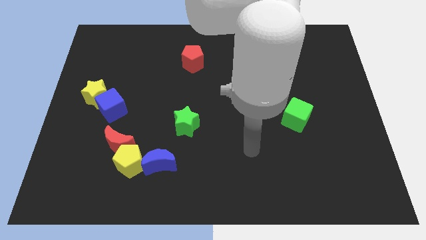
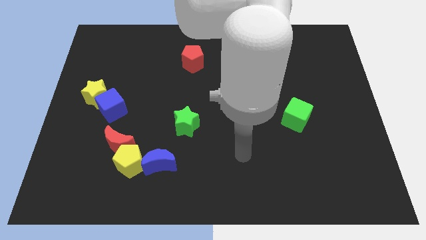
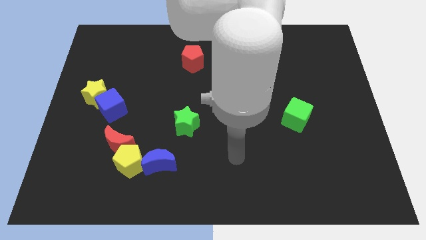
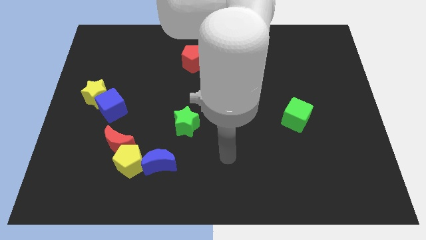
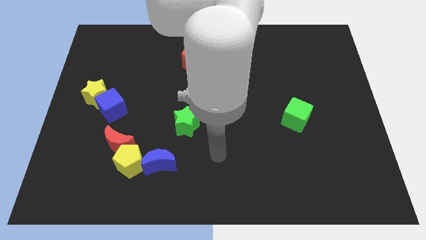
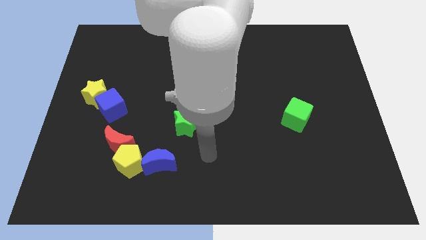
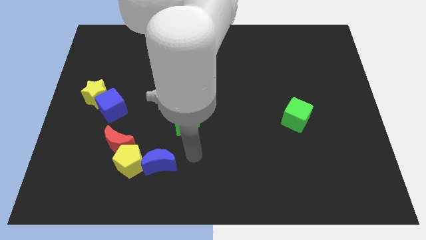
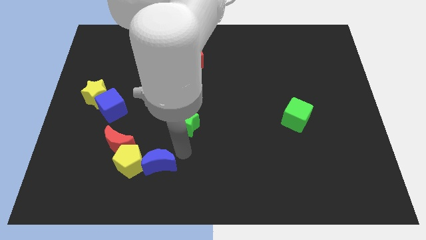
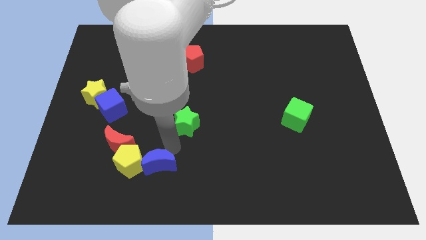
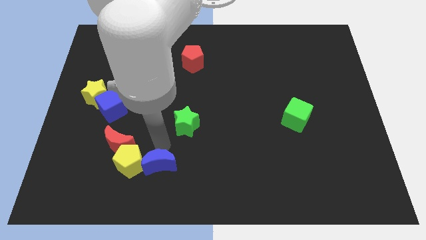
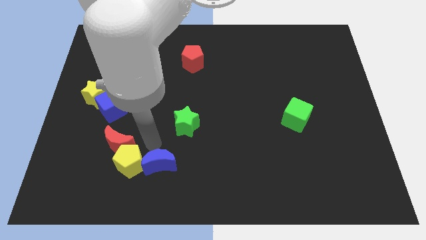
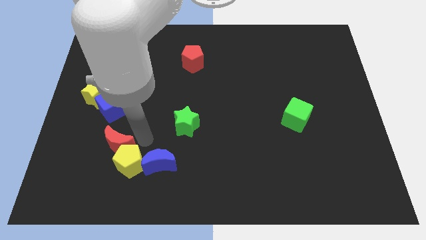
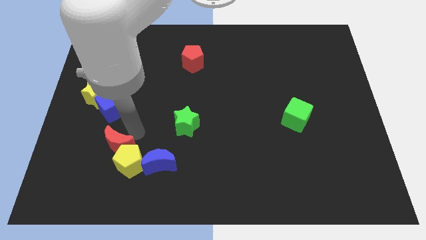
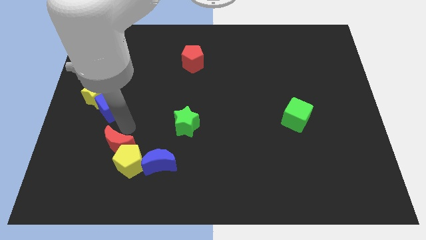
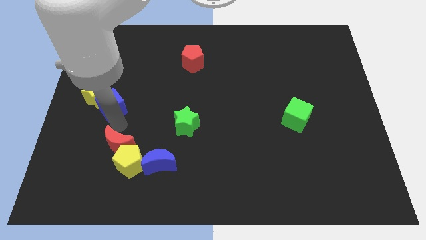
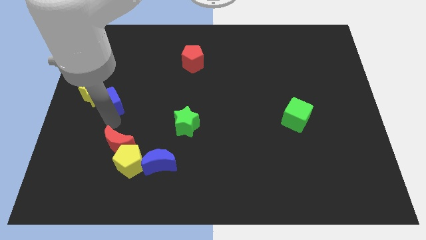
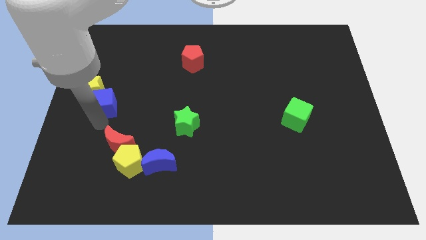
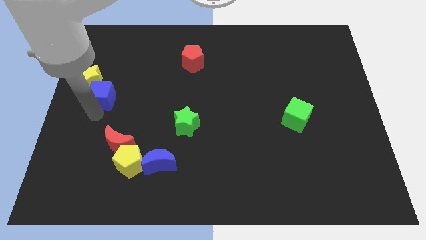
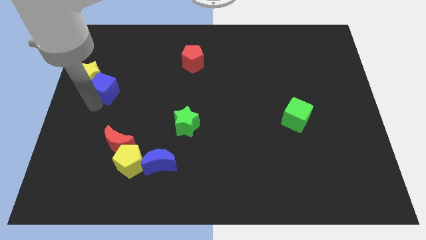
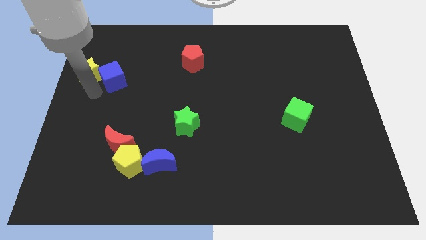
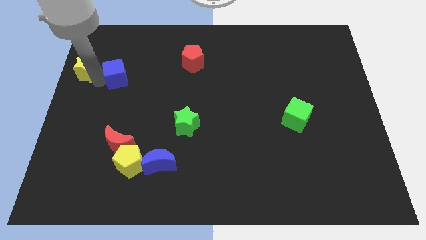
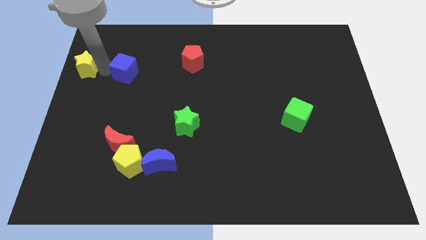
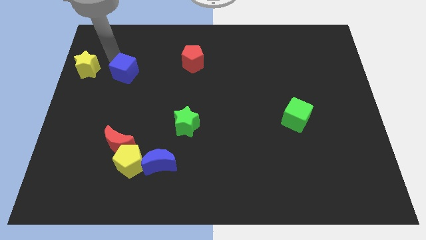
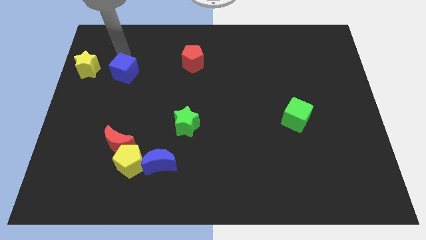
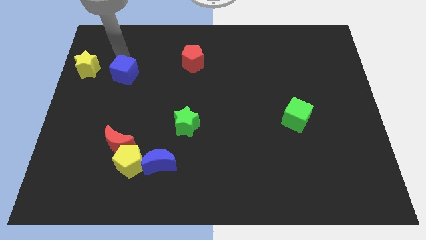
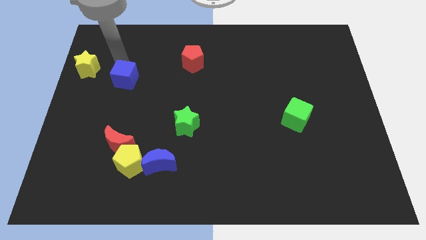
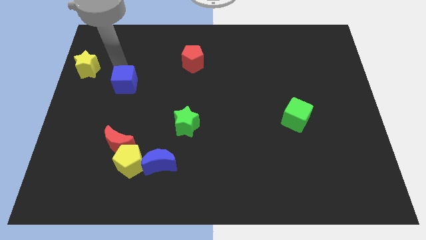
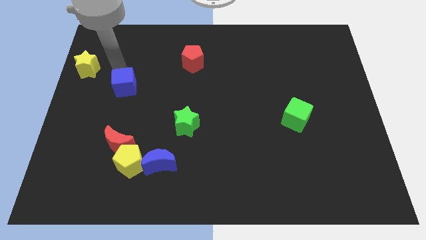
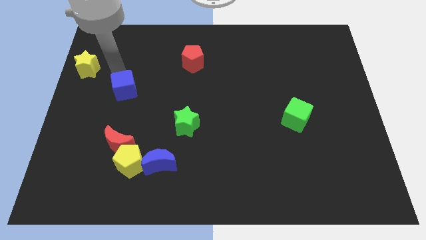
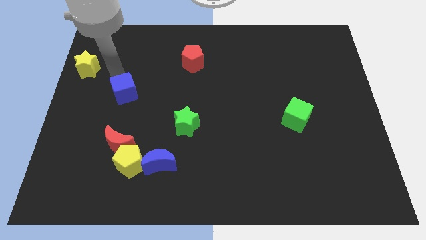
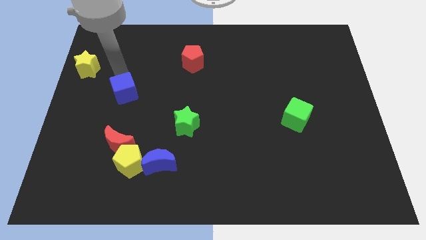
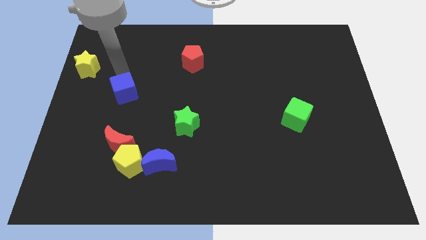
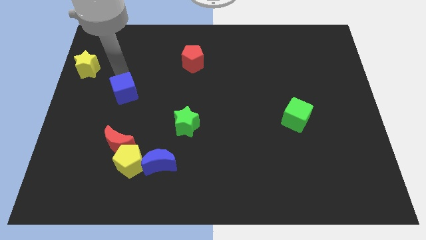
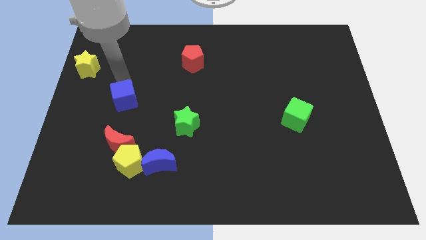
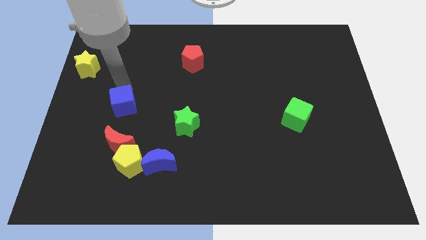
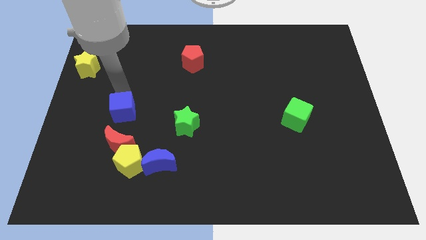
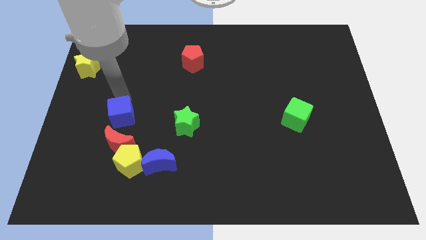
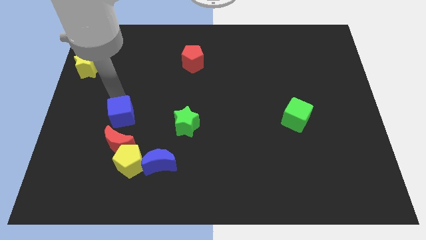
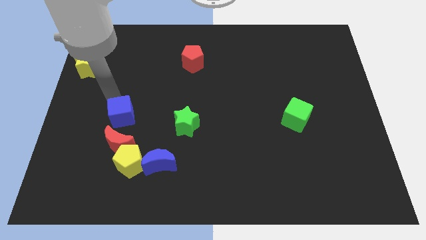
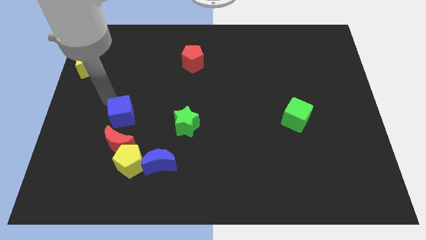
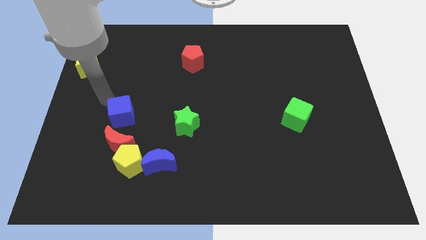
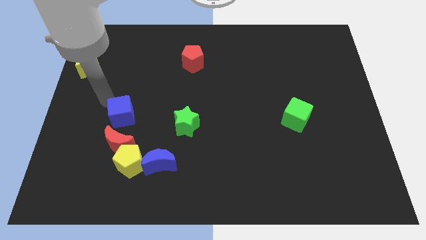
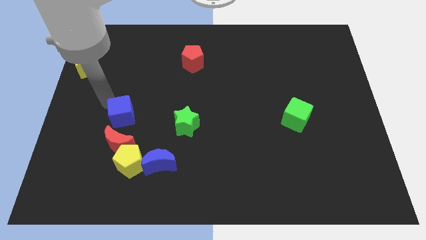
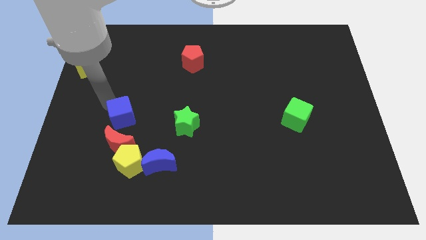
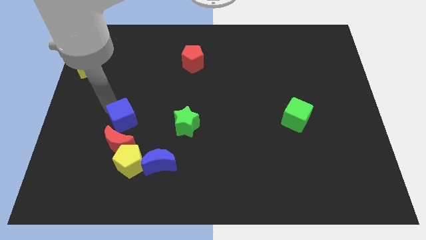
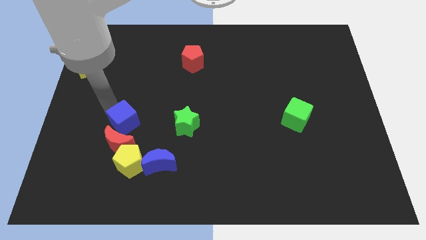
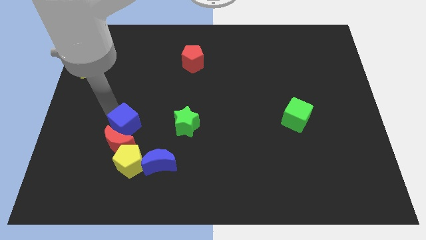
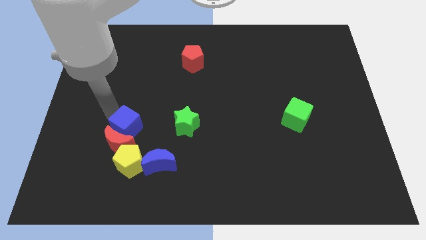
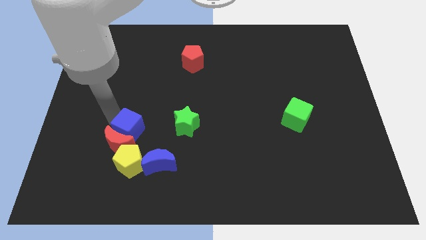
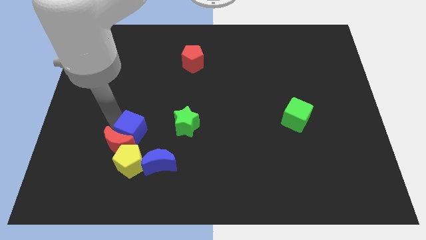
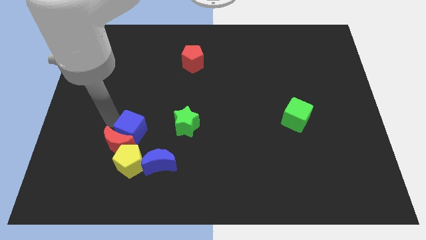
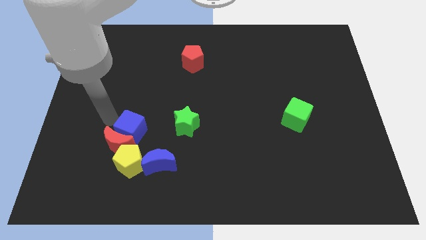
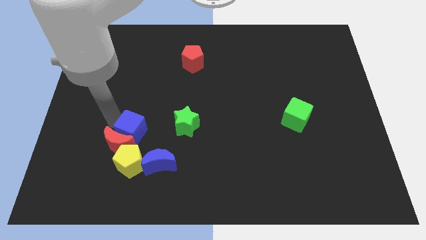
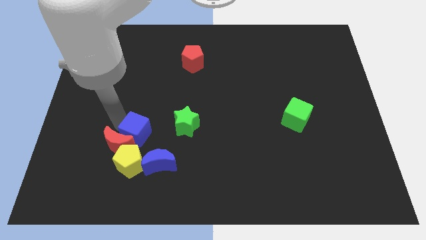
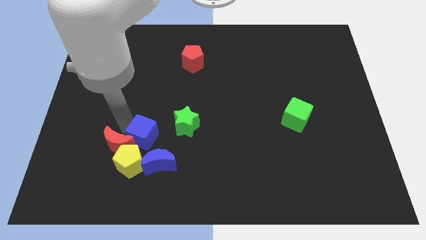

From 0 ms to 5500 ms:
put the blue cube to the top right of the yellow pentagon
